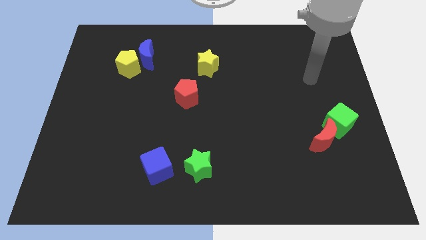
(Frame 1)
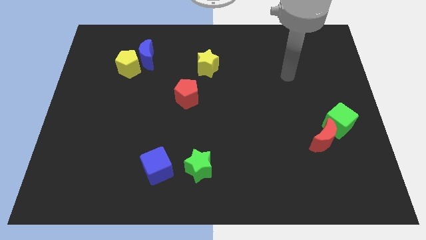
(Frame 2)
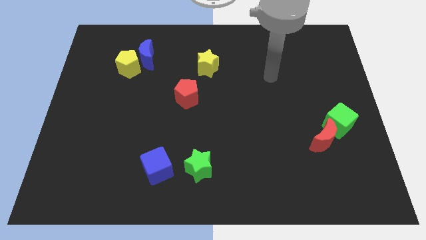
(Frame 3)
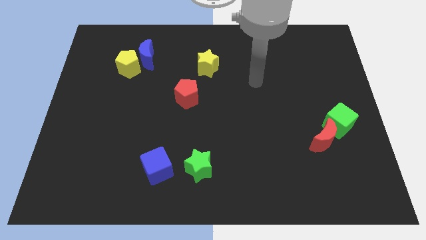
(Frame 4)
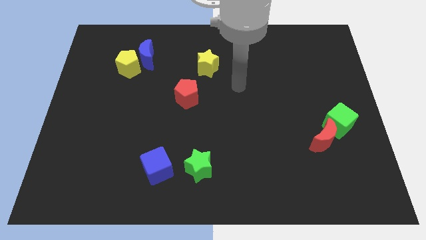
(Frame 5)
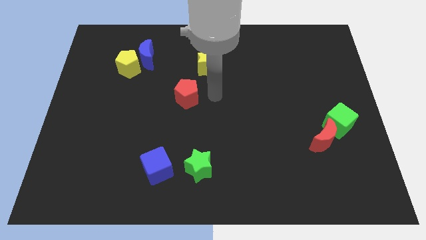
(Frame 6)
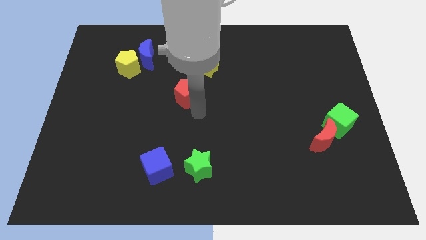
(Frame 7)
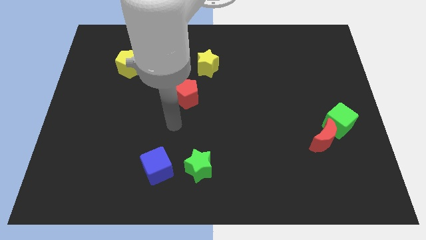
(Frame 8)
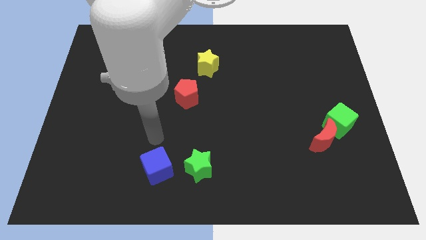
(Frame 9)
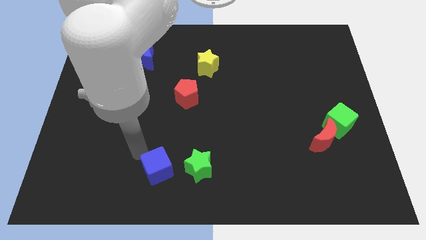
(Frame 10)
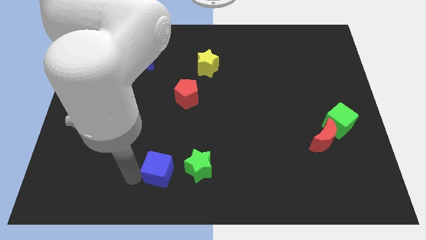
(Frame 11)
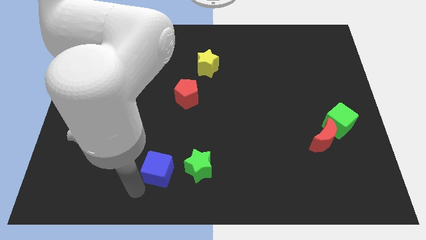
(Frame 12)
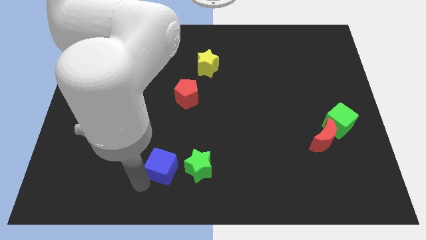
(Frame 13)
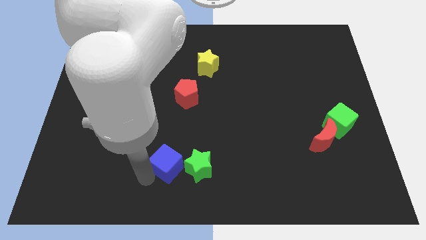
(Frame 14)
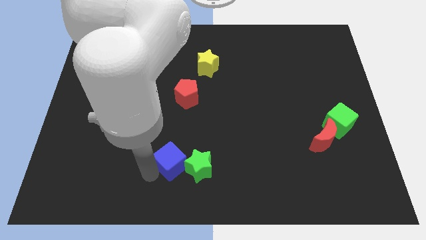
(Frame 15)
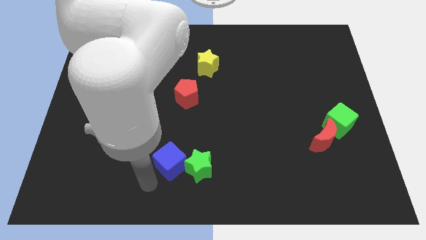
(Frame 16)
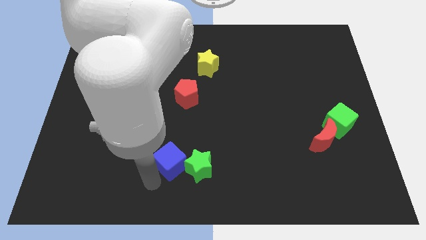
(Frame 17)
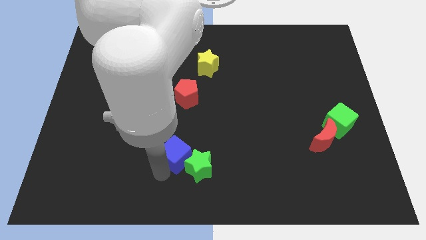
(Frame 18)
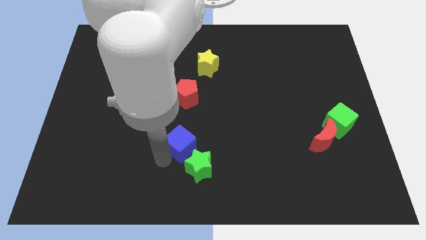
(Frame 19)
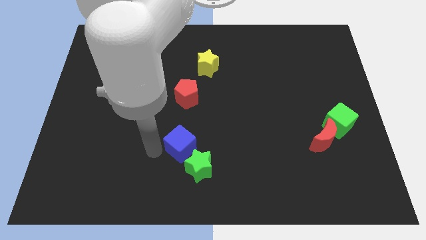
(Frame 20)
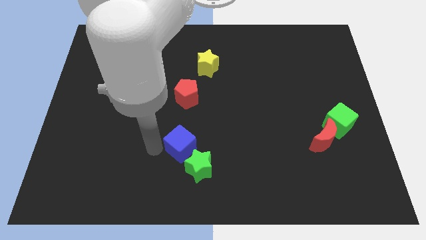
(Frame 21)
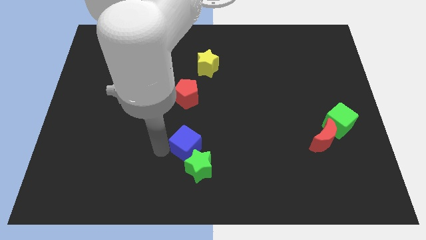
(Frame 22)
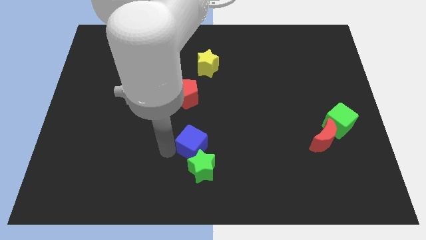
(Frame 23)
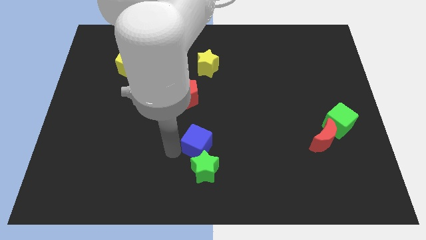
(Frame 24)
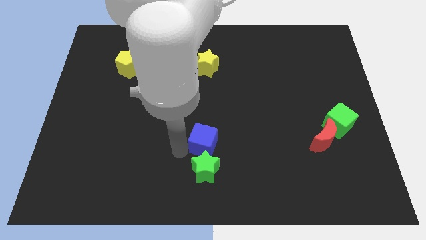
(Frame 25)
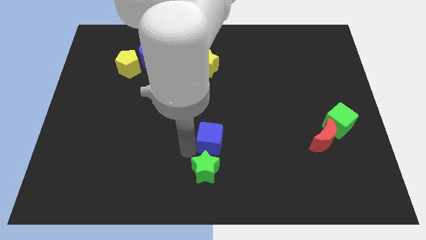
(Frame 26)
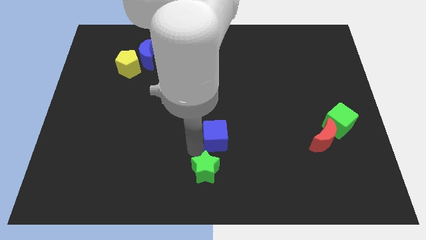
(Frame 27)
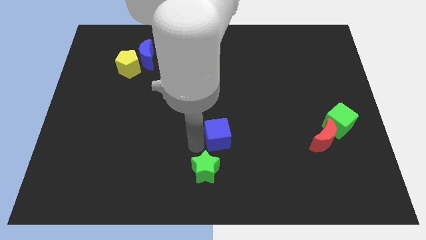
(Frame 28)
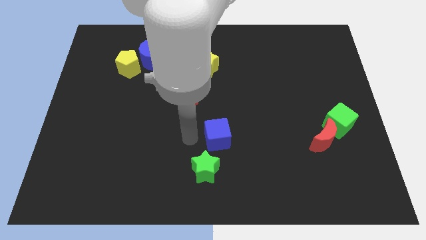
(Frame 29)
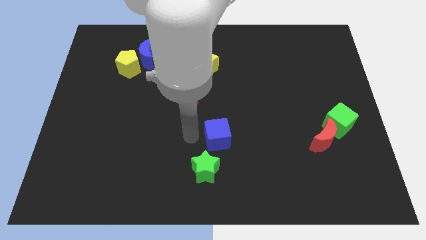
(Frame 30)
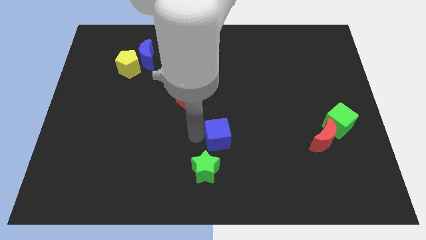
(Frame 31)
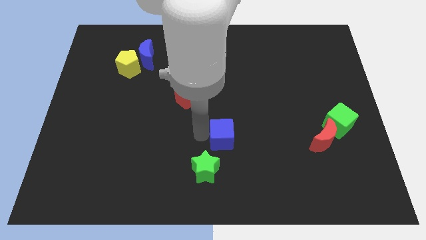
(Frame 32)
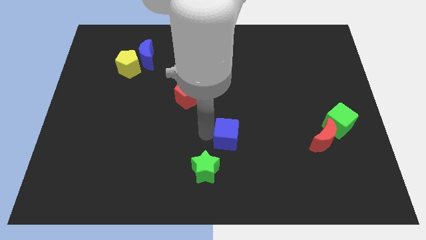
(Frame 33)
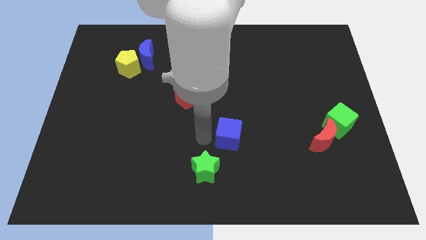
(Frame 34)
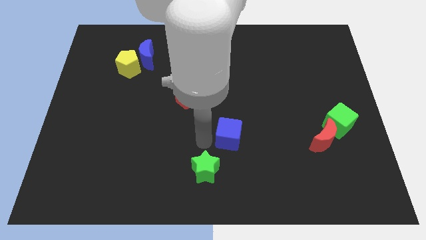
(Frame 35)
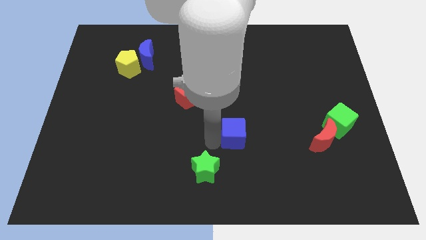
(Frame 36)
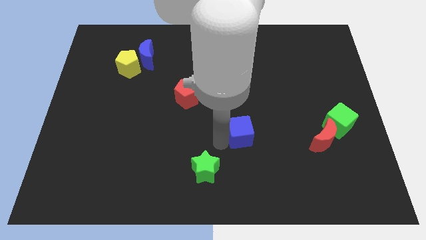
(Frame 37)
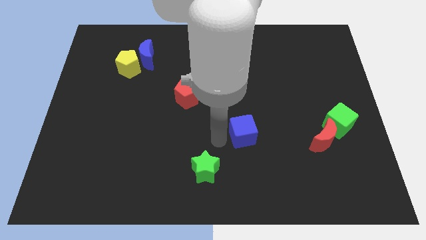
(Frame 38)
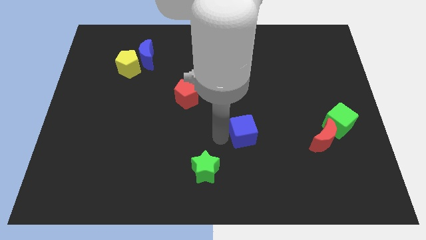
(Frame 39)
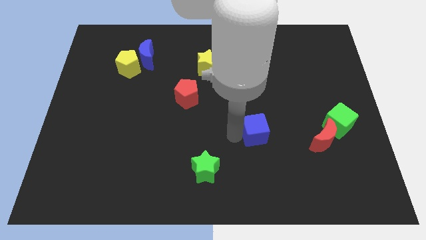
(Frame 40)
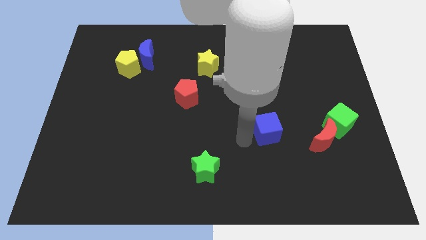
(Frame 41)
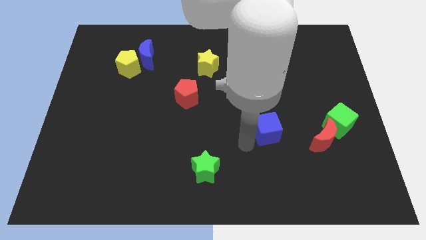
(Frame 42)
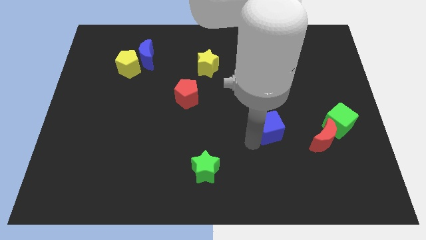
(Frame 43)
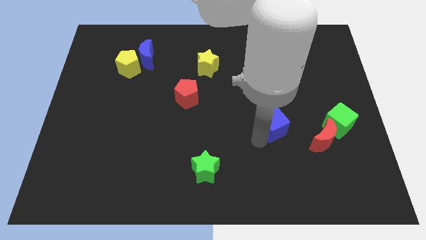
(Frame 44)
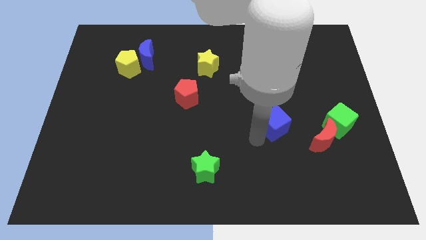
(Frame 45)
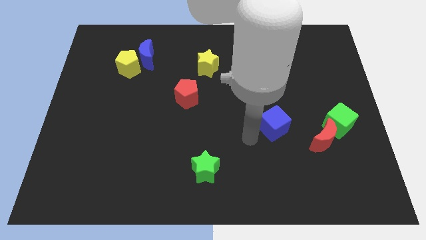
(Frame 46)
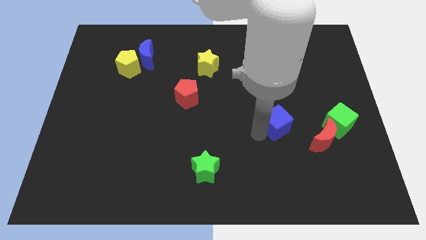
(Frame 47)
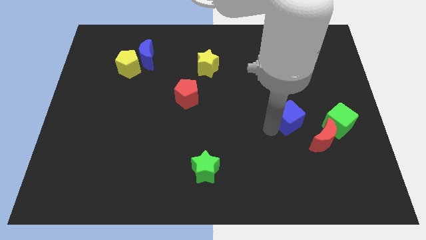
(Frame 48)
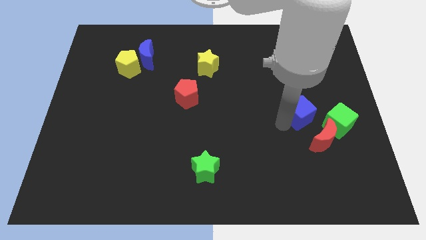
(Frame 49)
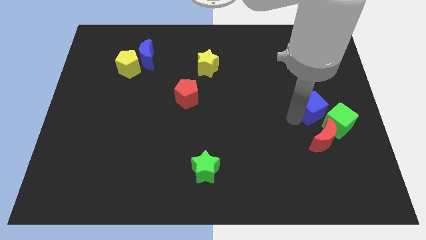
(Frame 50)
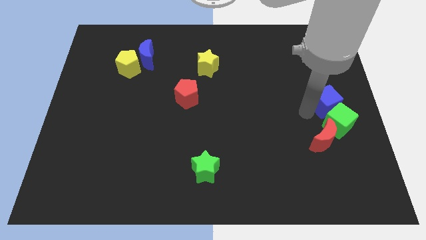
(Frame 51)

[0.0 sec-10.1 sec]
slide the blue cube to the right side
